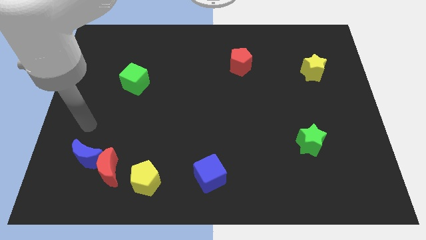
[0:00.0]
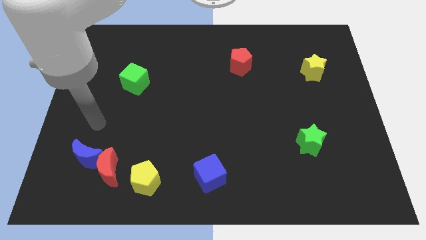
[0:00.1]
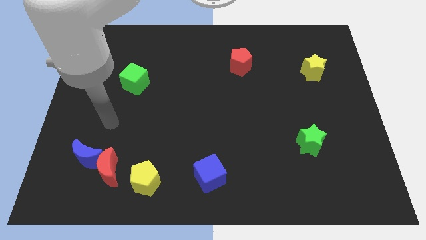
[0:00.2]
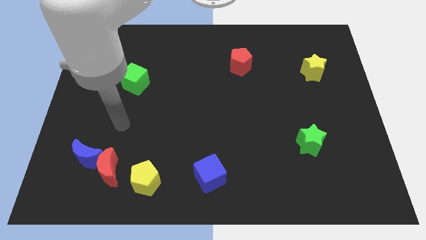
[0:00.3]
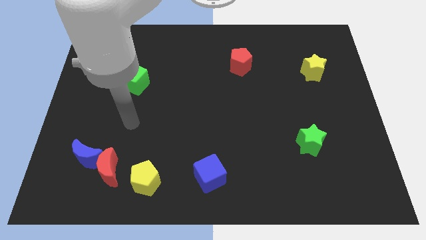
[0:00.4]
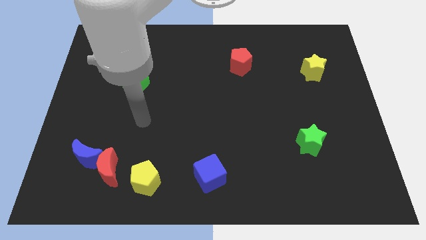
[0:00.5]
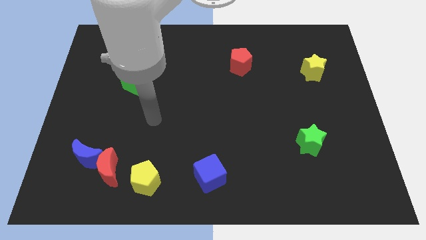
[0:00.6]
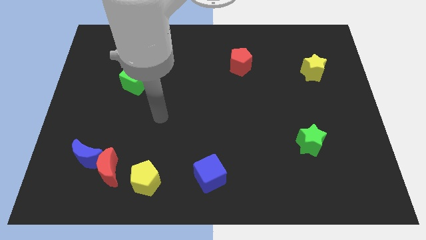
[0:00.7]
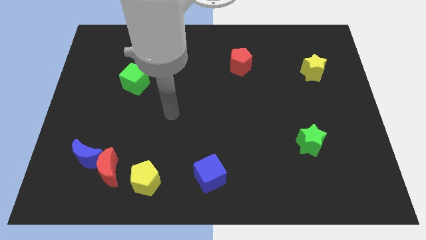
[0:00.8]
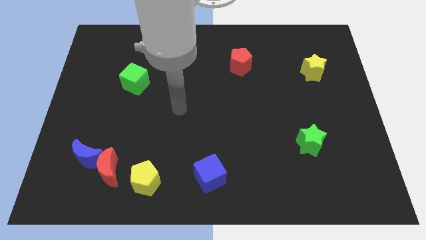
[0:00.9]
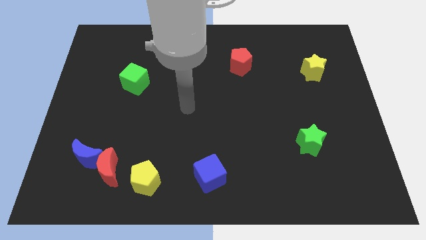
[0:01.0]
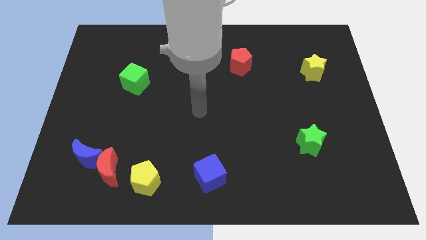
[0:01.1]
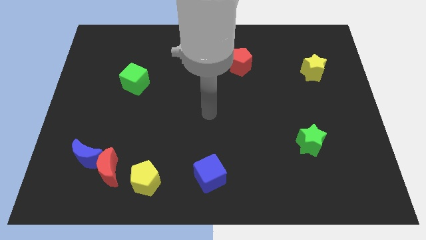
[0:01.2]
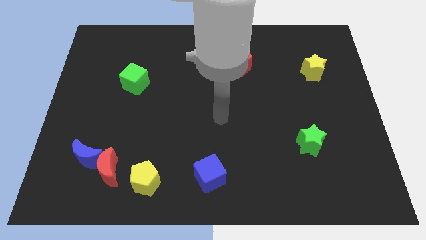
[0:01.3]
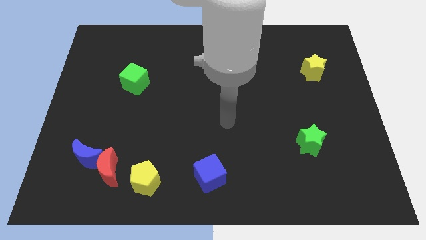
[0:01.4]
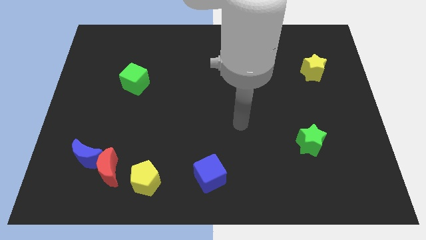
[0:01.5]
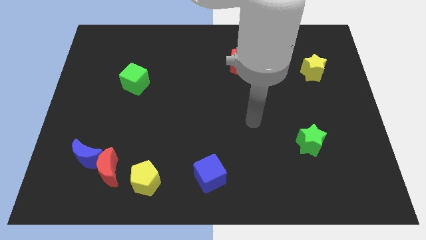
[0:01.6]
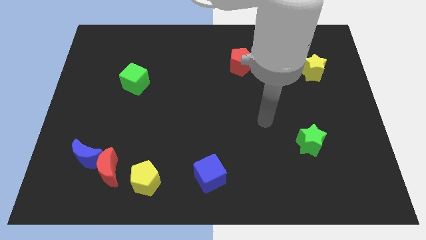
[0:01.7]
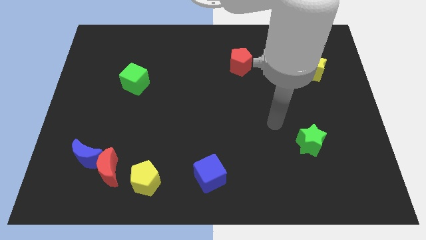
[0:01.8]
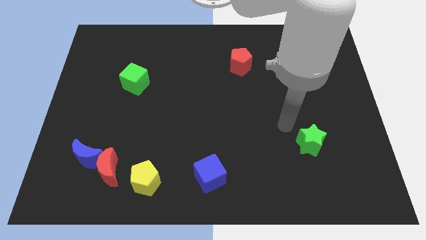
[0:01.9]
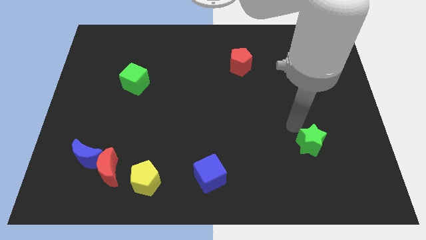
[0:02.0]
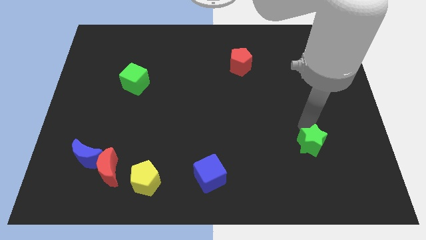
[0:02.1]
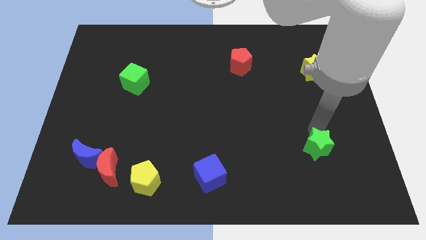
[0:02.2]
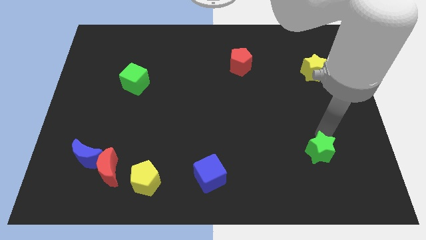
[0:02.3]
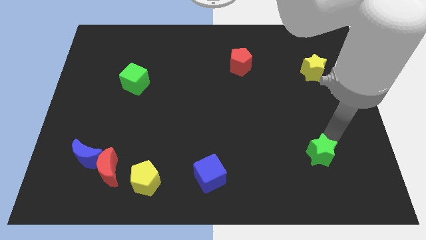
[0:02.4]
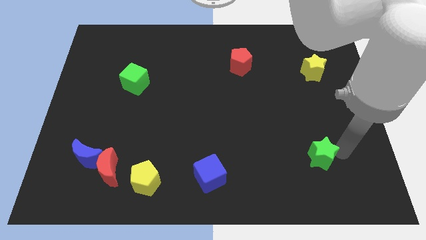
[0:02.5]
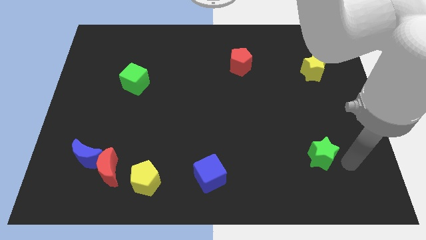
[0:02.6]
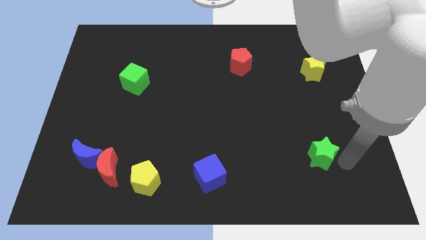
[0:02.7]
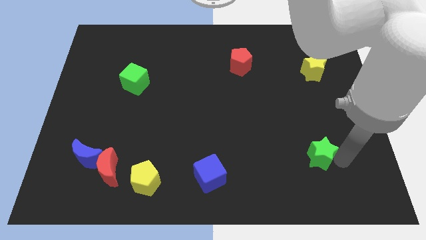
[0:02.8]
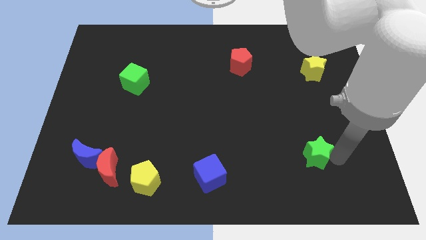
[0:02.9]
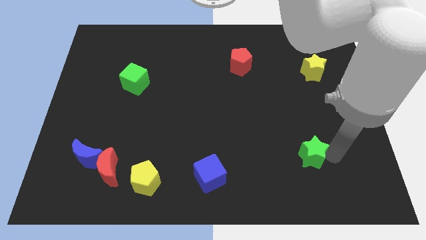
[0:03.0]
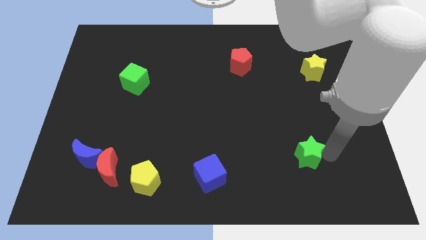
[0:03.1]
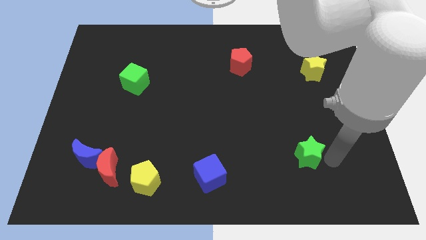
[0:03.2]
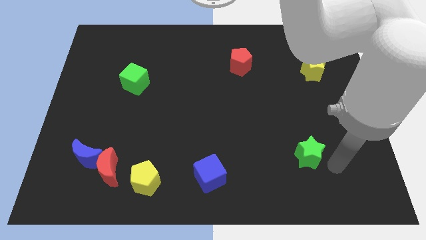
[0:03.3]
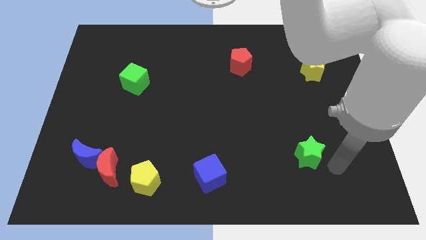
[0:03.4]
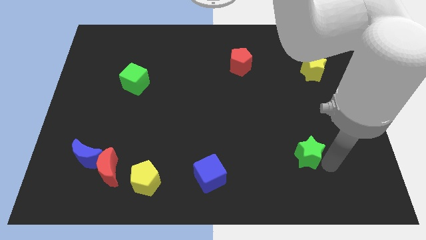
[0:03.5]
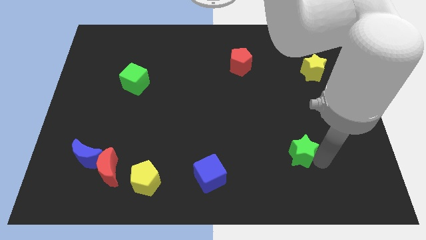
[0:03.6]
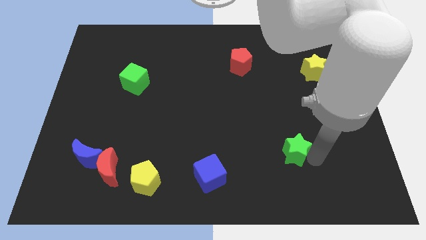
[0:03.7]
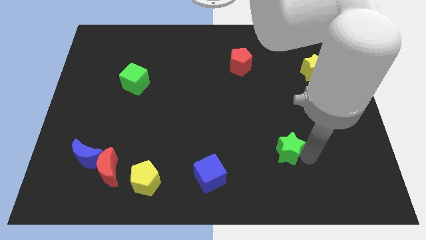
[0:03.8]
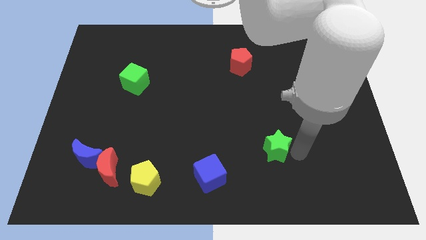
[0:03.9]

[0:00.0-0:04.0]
push the green star a little left

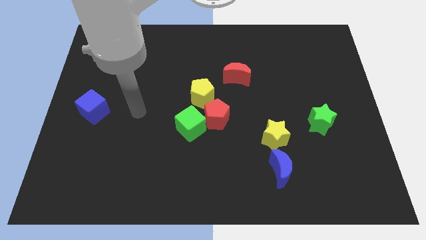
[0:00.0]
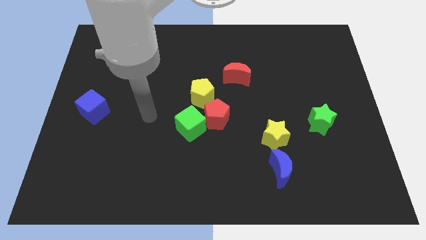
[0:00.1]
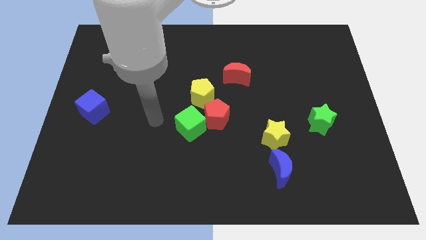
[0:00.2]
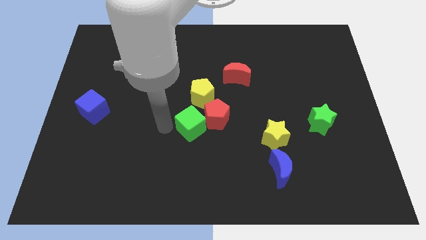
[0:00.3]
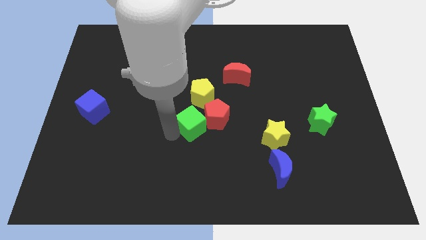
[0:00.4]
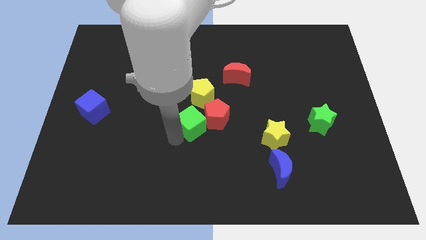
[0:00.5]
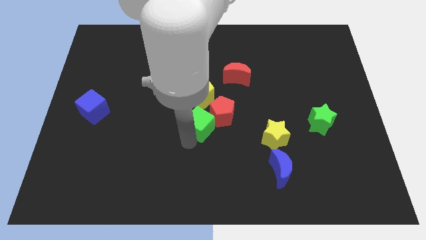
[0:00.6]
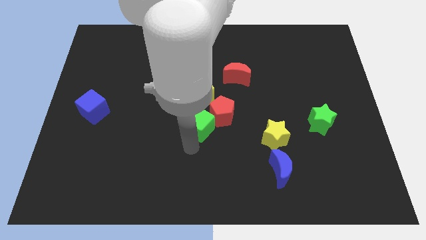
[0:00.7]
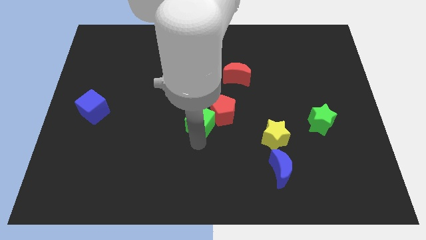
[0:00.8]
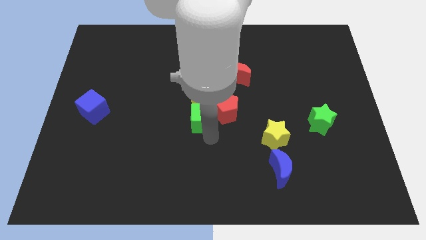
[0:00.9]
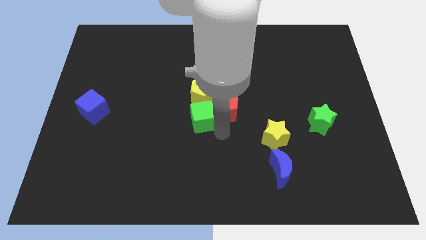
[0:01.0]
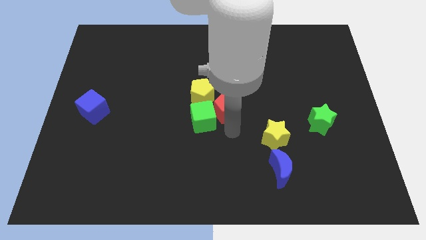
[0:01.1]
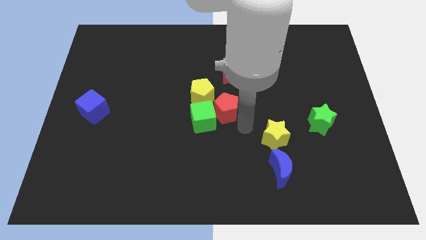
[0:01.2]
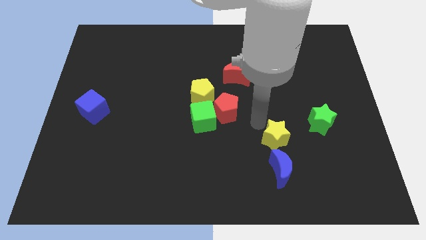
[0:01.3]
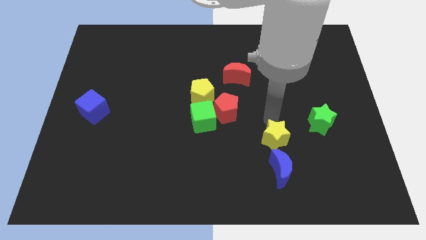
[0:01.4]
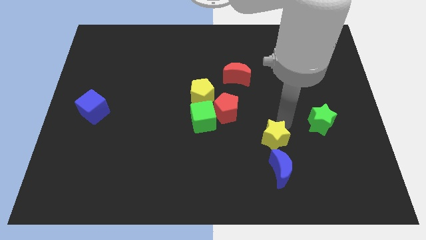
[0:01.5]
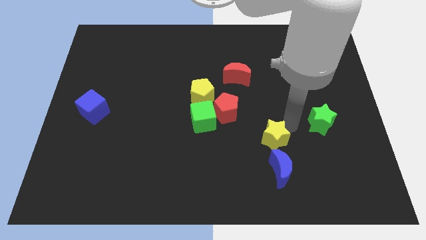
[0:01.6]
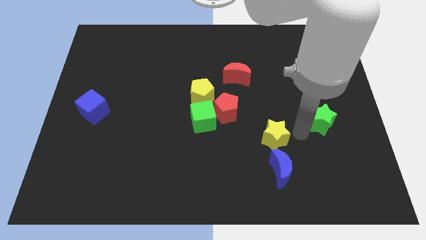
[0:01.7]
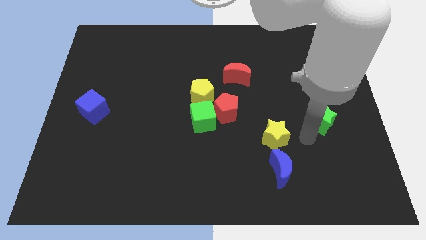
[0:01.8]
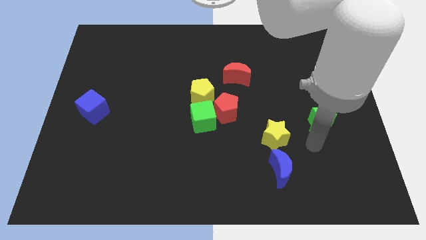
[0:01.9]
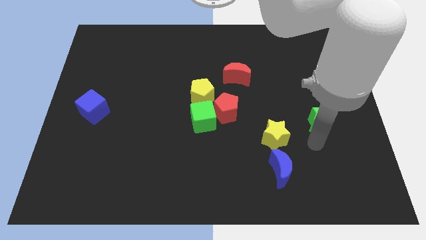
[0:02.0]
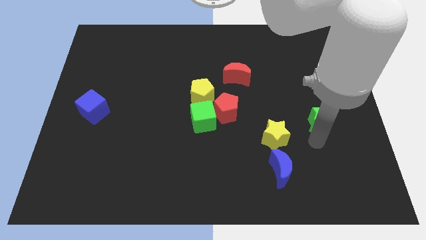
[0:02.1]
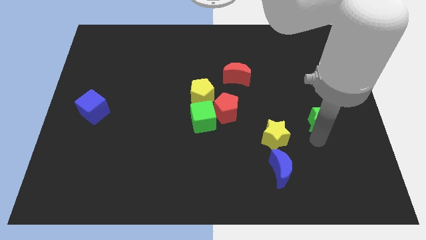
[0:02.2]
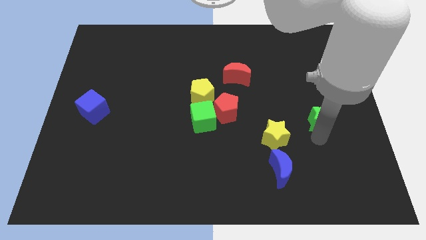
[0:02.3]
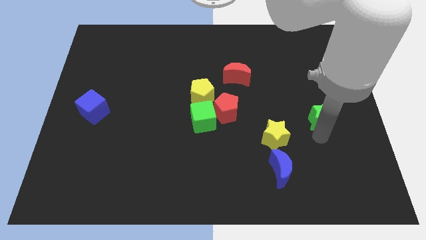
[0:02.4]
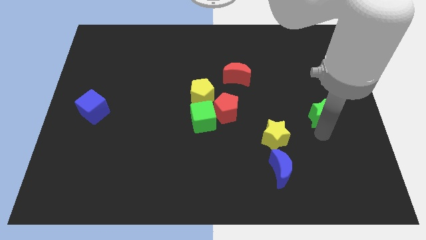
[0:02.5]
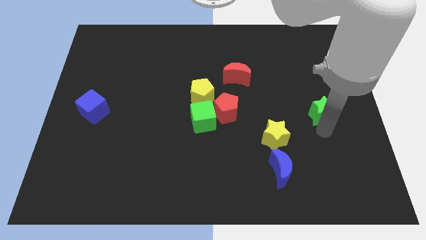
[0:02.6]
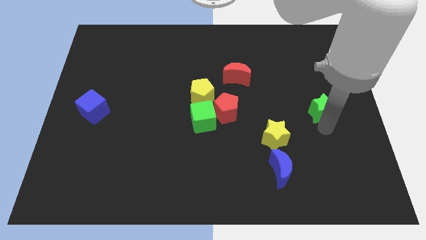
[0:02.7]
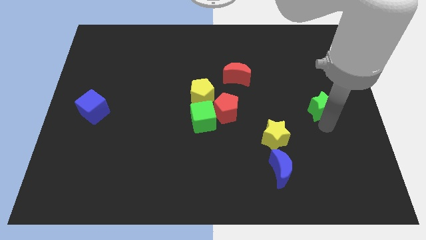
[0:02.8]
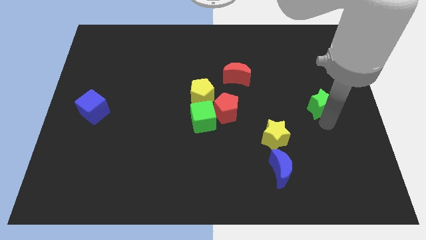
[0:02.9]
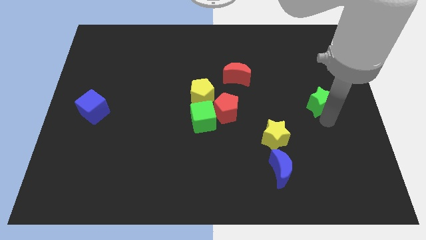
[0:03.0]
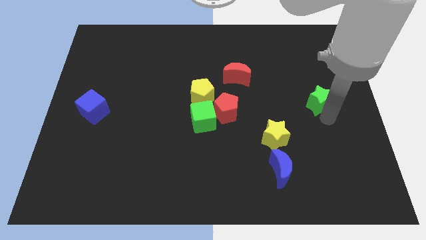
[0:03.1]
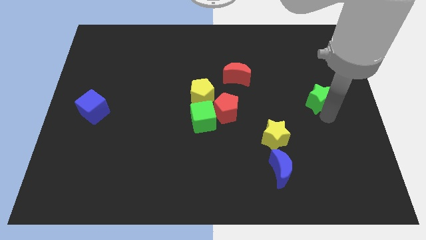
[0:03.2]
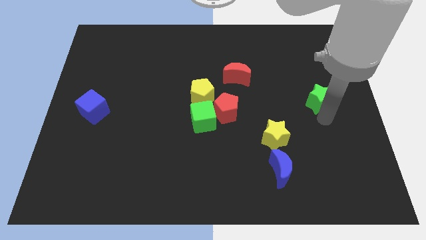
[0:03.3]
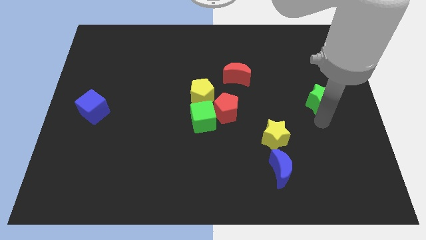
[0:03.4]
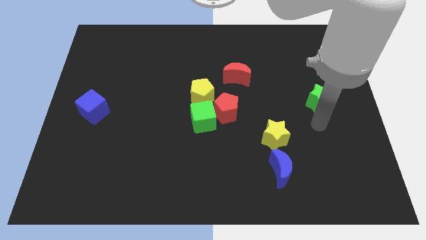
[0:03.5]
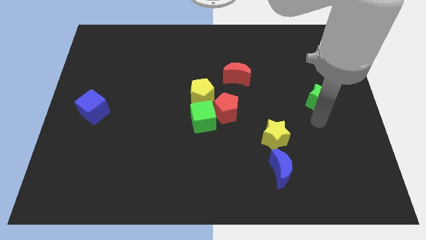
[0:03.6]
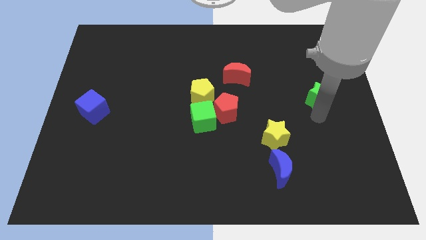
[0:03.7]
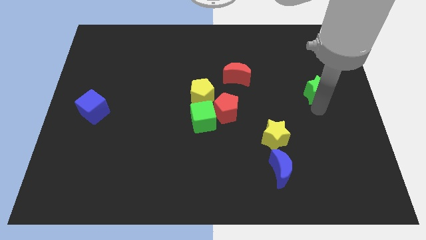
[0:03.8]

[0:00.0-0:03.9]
slightly push the green star upwards

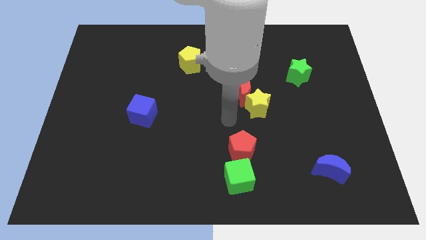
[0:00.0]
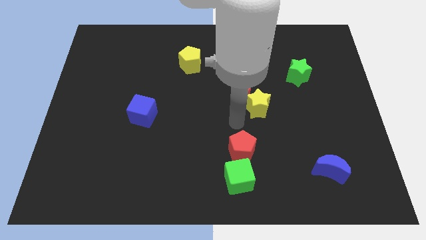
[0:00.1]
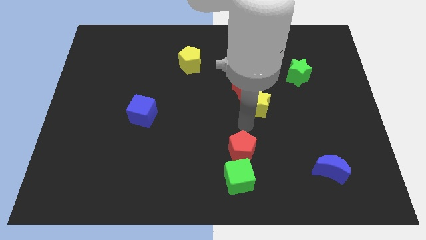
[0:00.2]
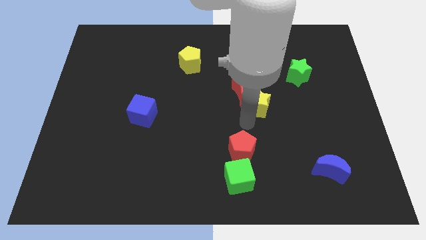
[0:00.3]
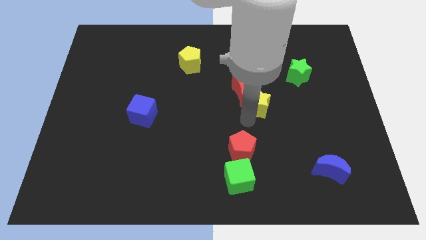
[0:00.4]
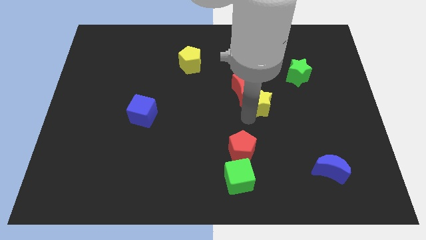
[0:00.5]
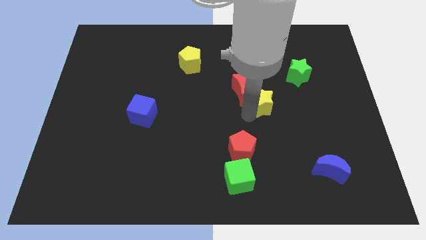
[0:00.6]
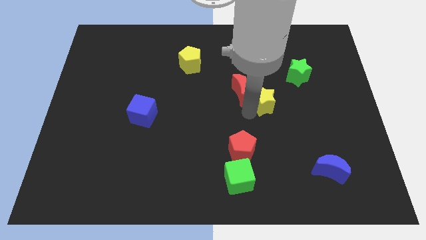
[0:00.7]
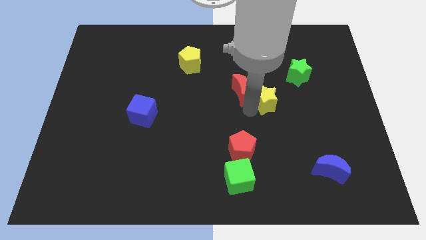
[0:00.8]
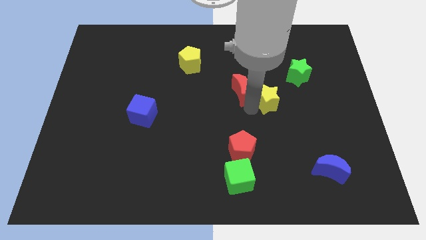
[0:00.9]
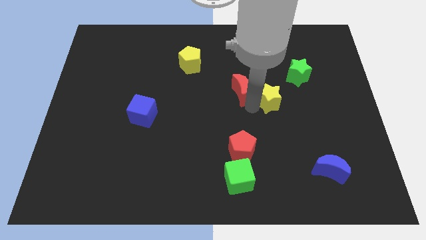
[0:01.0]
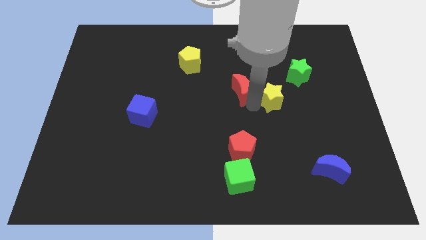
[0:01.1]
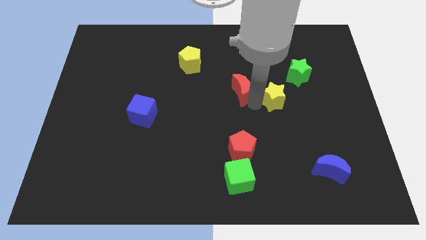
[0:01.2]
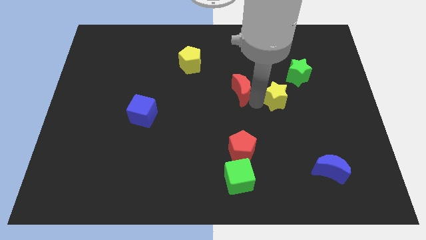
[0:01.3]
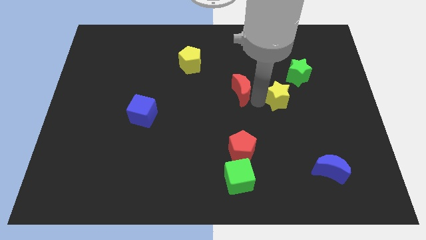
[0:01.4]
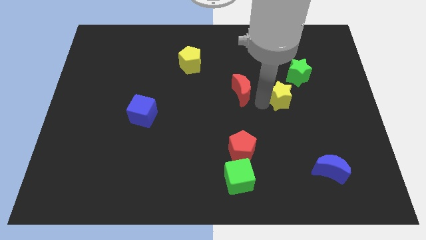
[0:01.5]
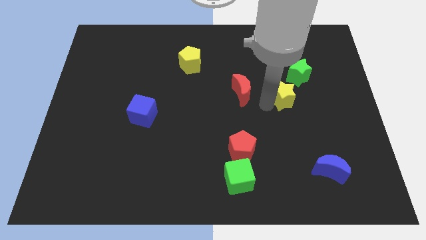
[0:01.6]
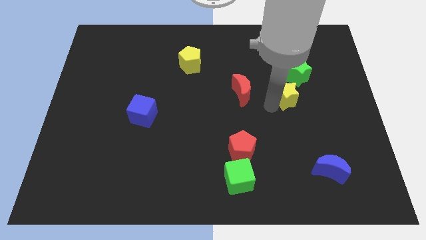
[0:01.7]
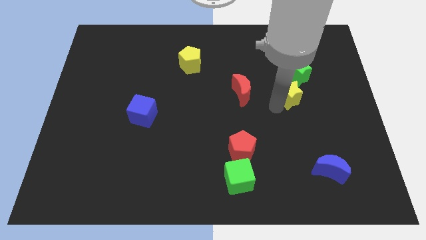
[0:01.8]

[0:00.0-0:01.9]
push the yellow star upwards and then right a bit
